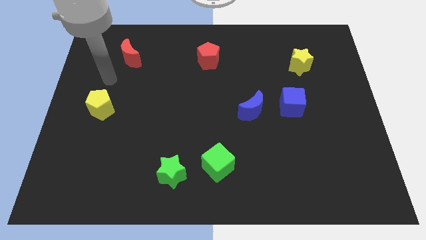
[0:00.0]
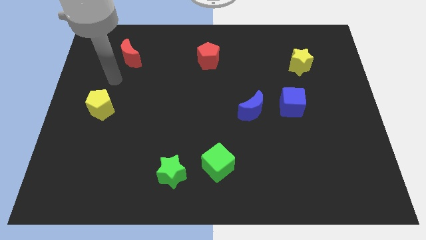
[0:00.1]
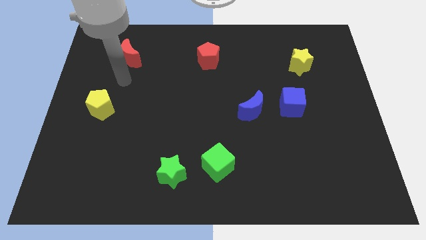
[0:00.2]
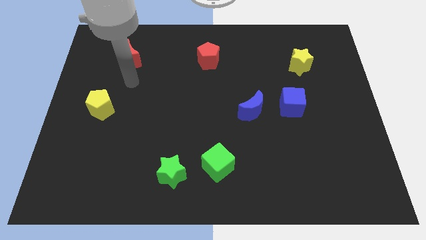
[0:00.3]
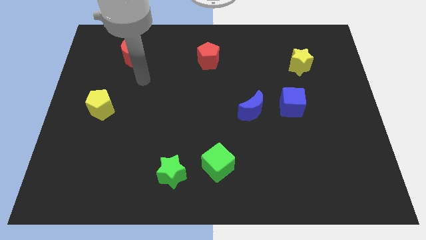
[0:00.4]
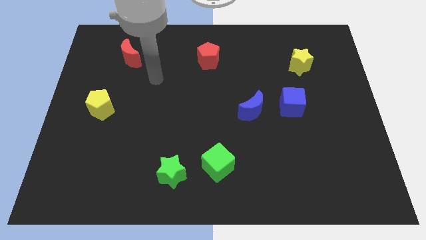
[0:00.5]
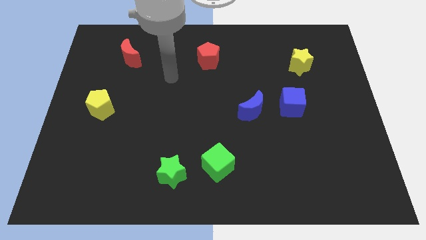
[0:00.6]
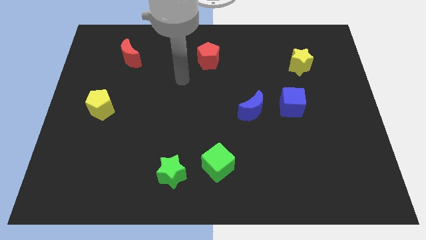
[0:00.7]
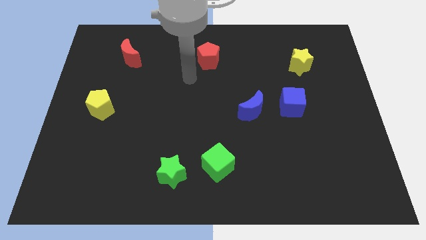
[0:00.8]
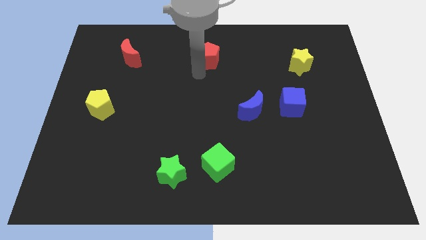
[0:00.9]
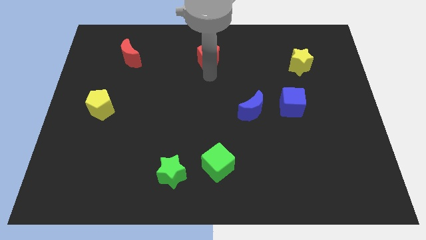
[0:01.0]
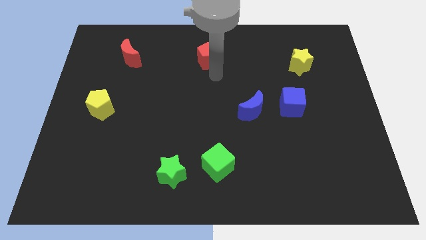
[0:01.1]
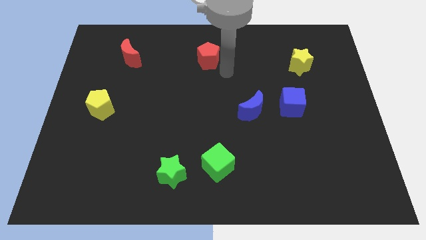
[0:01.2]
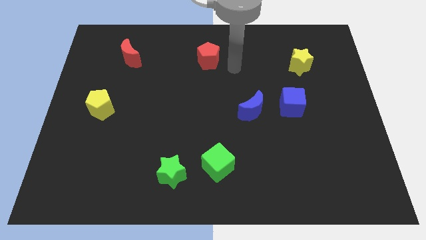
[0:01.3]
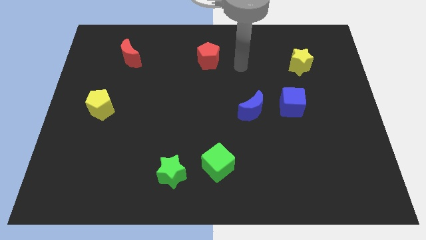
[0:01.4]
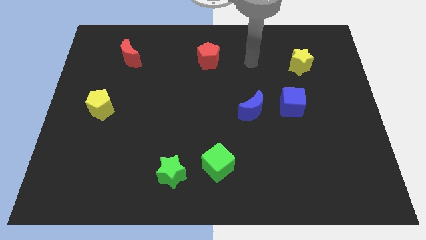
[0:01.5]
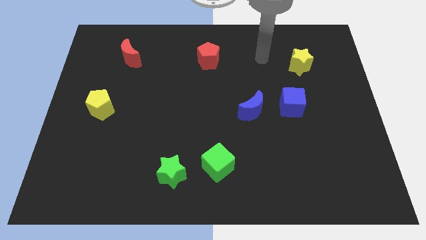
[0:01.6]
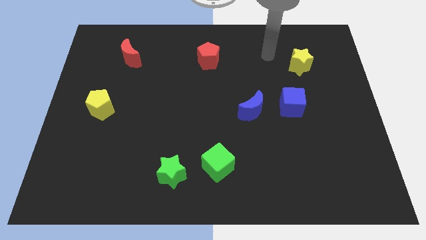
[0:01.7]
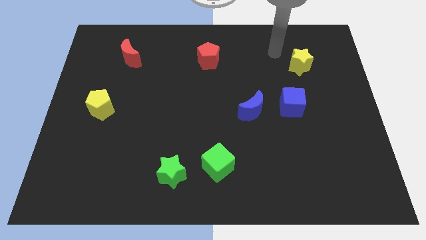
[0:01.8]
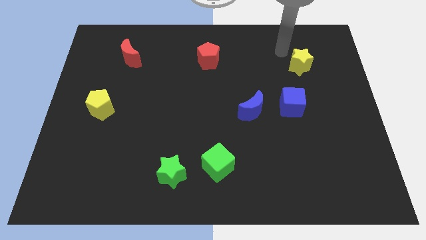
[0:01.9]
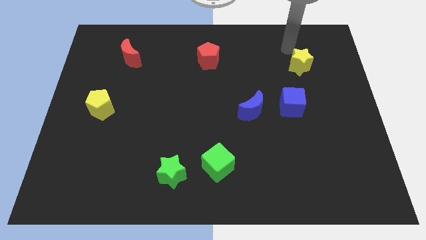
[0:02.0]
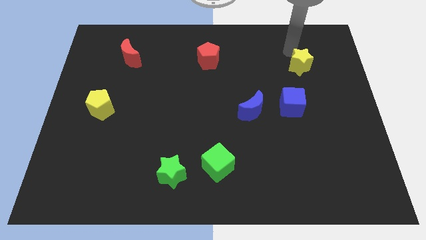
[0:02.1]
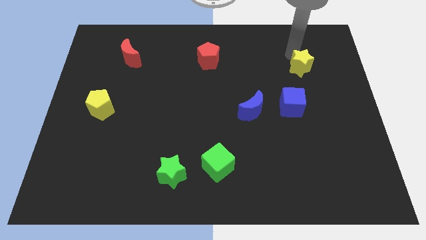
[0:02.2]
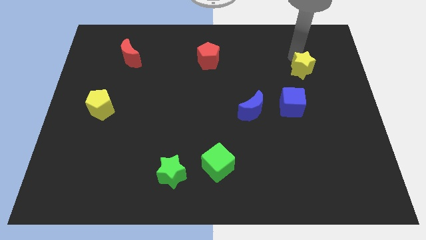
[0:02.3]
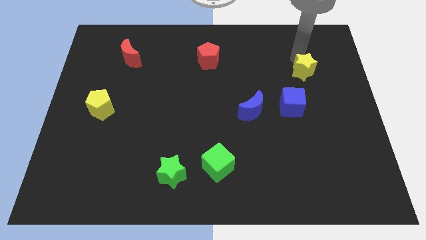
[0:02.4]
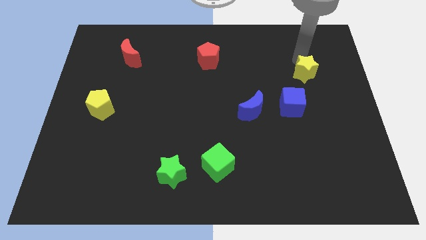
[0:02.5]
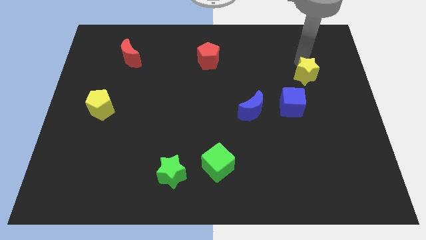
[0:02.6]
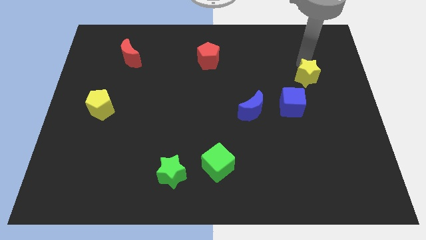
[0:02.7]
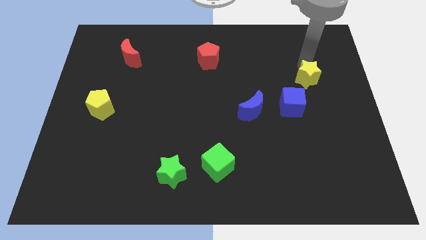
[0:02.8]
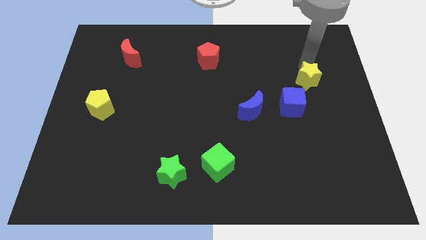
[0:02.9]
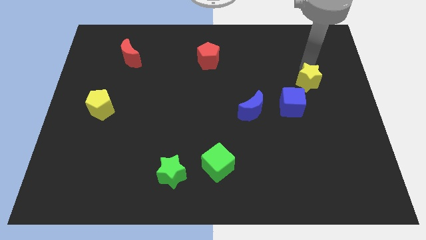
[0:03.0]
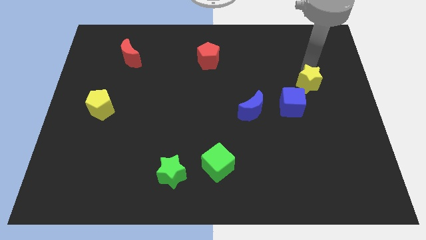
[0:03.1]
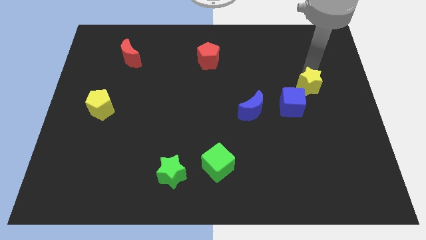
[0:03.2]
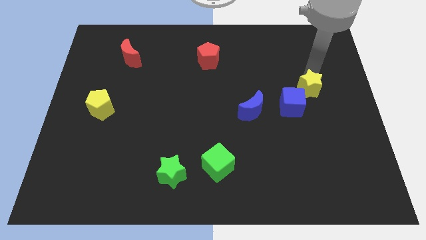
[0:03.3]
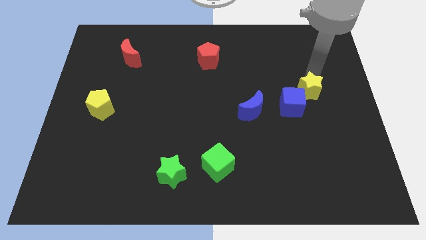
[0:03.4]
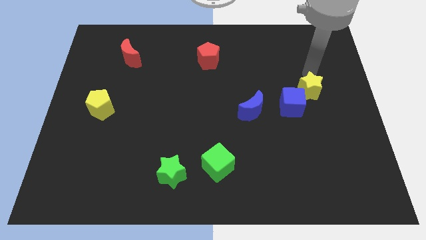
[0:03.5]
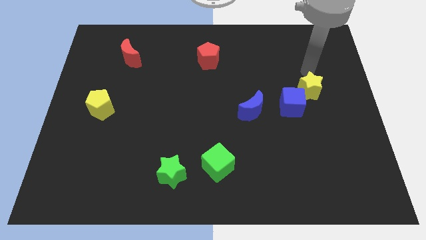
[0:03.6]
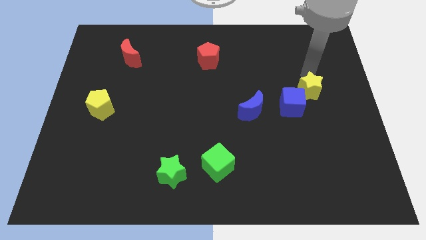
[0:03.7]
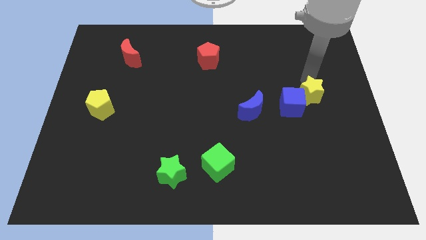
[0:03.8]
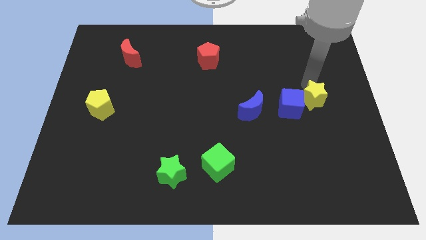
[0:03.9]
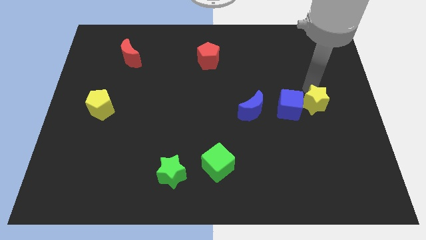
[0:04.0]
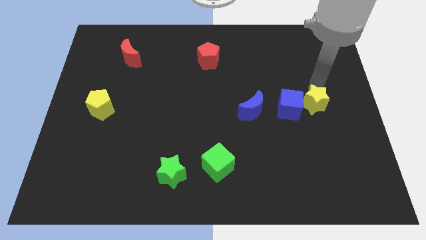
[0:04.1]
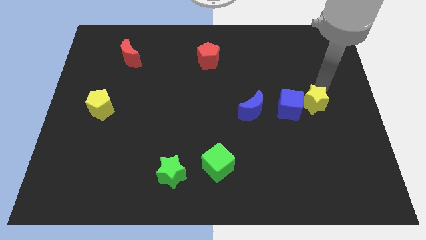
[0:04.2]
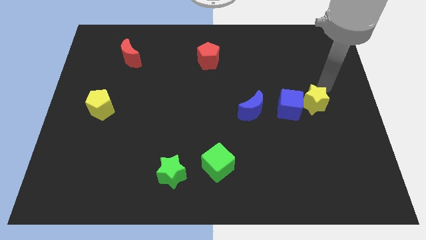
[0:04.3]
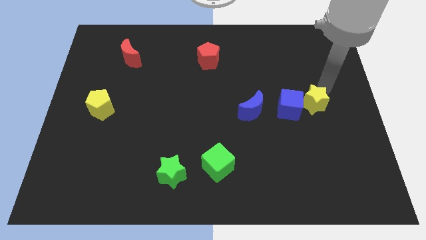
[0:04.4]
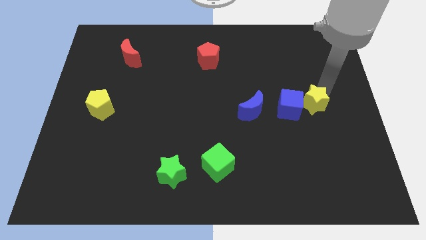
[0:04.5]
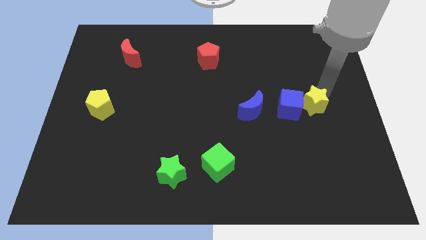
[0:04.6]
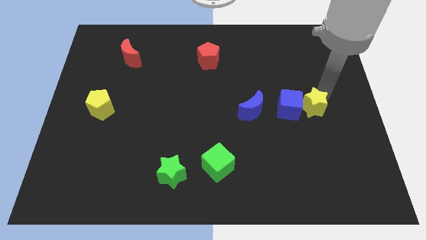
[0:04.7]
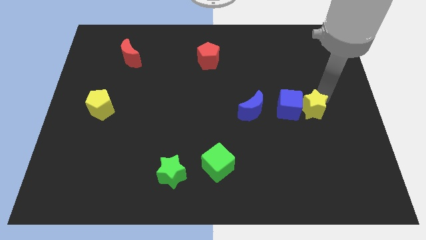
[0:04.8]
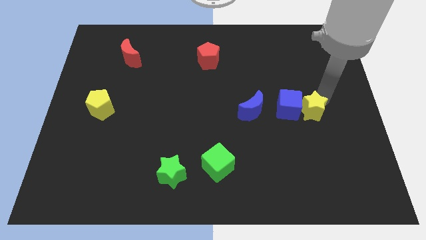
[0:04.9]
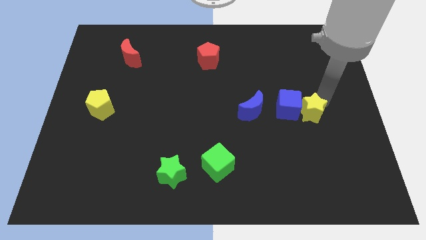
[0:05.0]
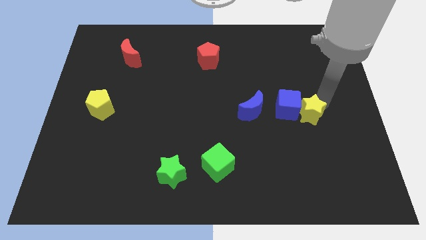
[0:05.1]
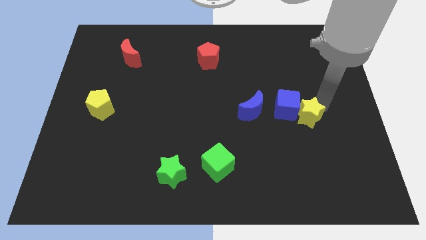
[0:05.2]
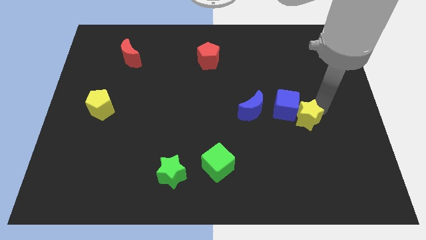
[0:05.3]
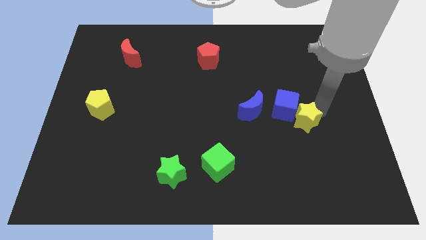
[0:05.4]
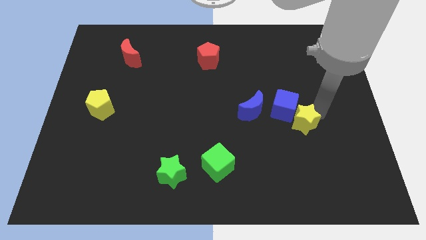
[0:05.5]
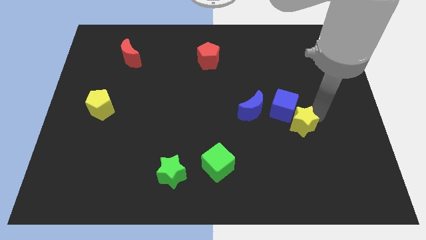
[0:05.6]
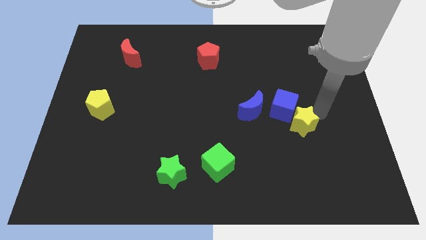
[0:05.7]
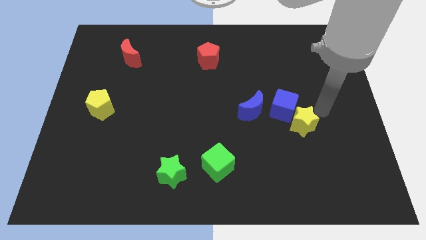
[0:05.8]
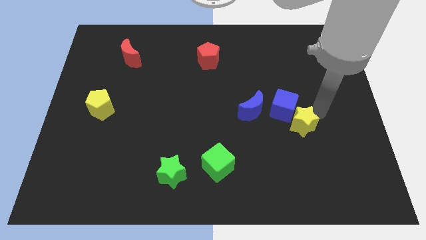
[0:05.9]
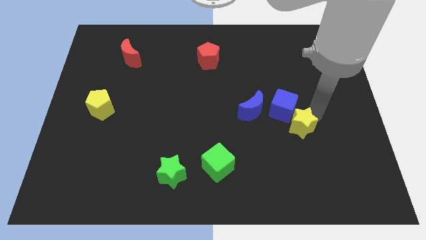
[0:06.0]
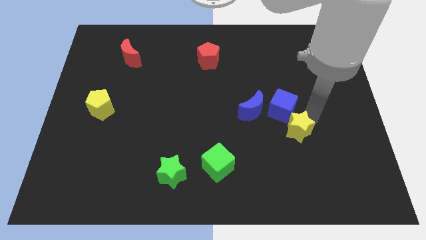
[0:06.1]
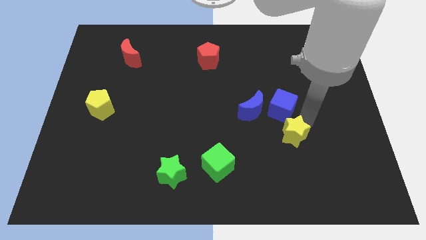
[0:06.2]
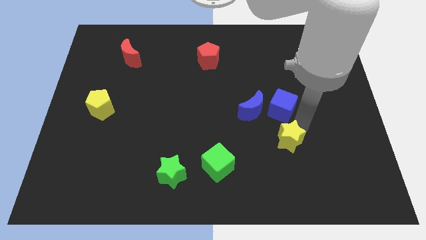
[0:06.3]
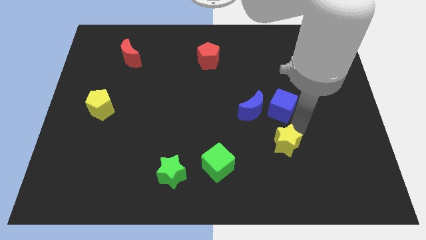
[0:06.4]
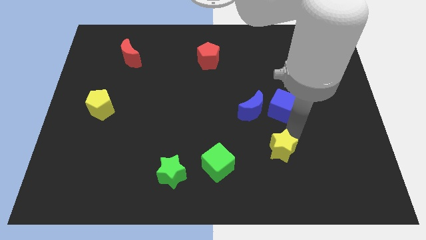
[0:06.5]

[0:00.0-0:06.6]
slide the yellow star just right of the green cube
